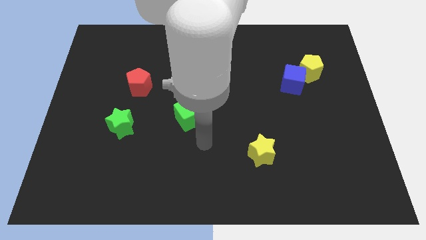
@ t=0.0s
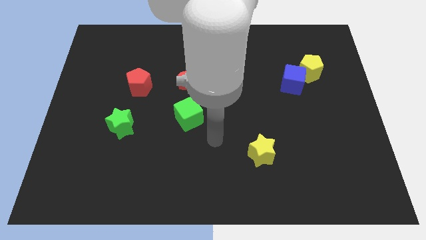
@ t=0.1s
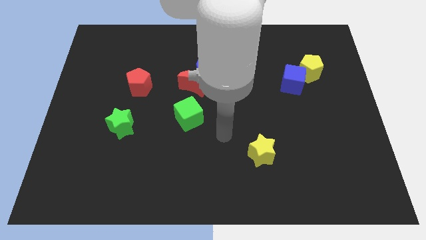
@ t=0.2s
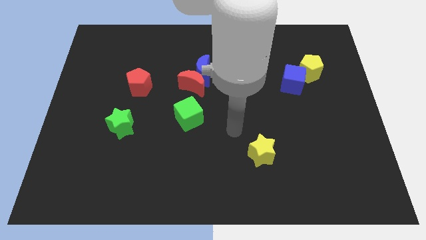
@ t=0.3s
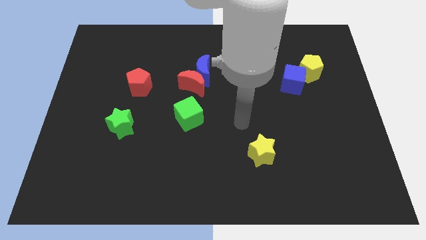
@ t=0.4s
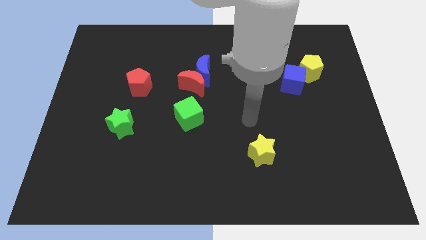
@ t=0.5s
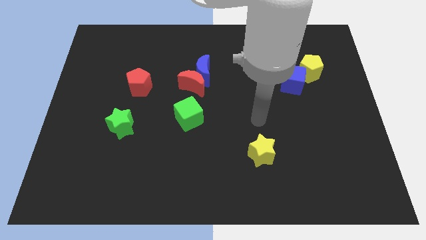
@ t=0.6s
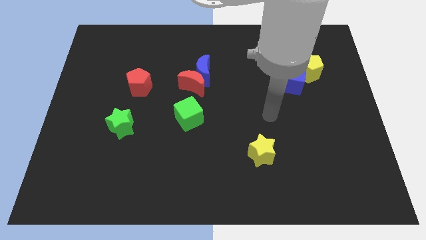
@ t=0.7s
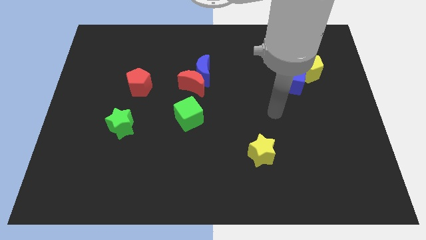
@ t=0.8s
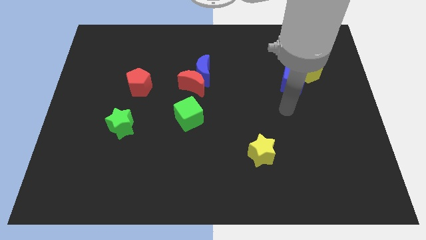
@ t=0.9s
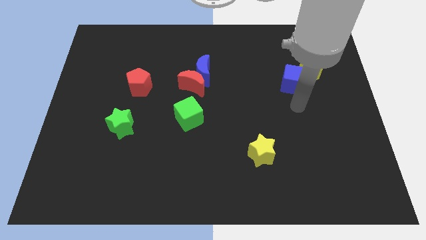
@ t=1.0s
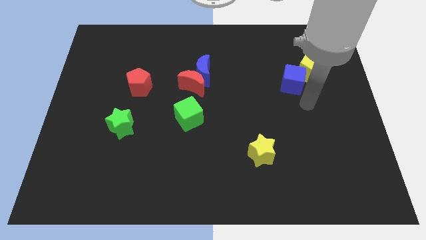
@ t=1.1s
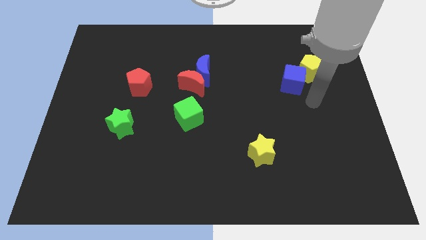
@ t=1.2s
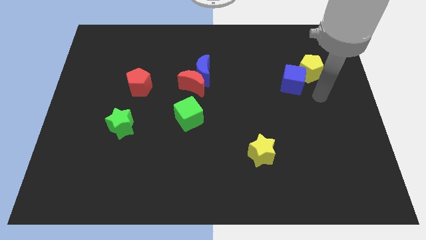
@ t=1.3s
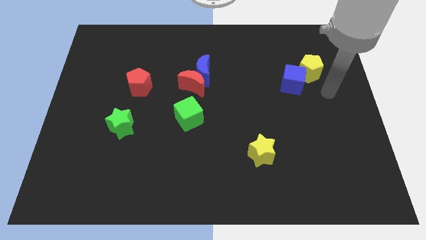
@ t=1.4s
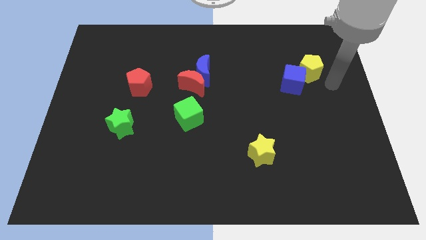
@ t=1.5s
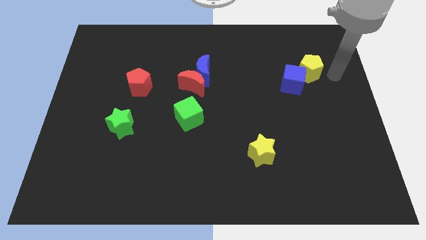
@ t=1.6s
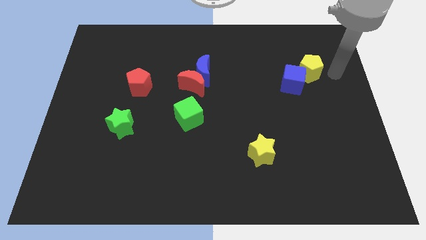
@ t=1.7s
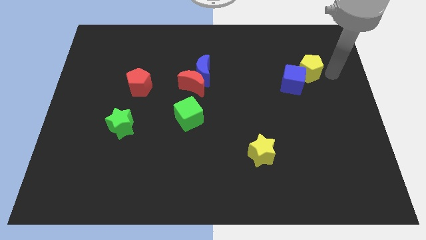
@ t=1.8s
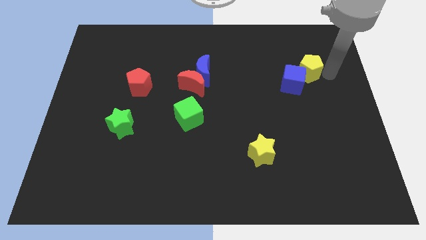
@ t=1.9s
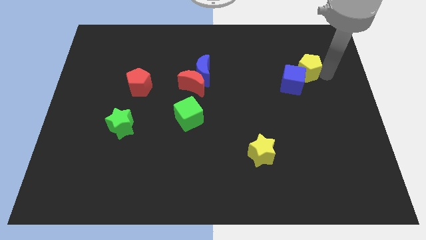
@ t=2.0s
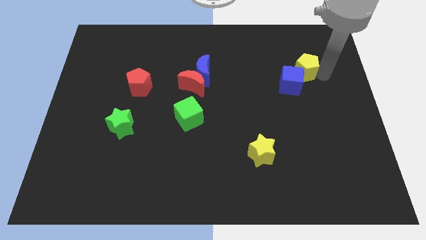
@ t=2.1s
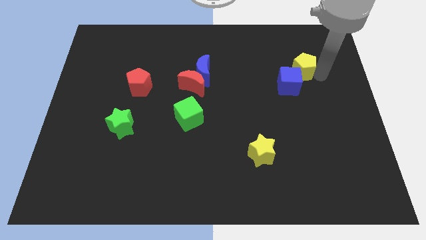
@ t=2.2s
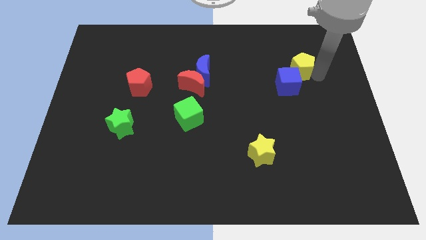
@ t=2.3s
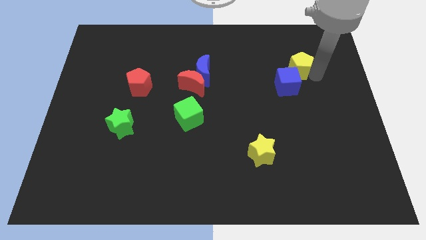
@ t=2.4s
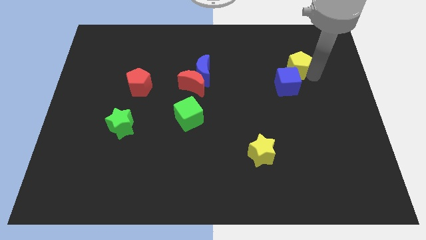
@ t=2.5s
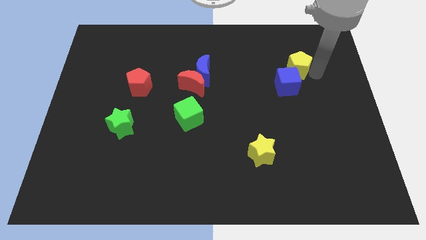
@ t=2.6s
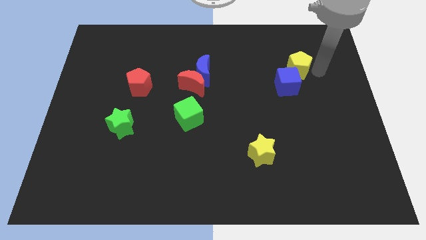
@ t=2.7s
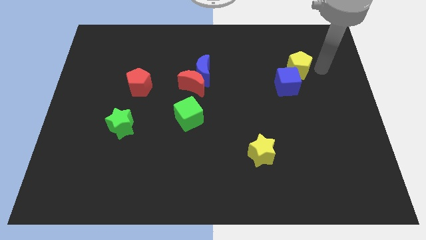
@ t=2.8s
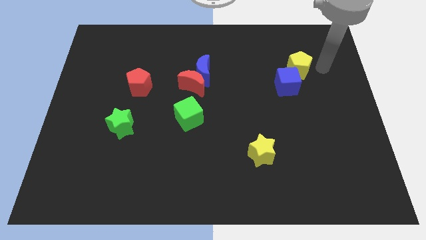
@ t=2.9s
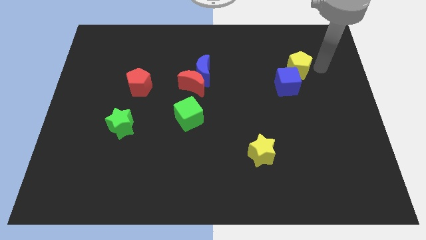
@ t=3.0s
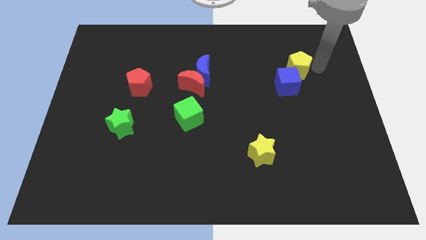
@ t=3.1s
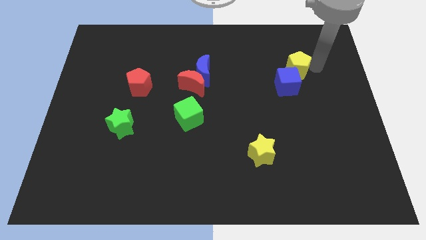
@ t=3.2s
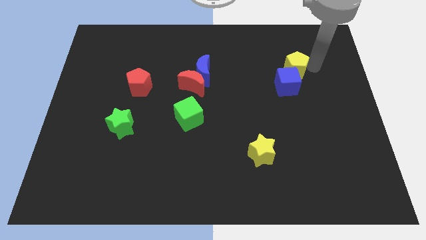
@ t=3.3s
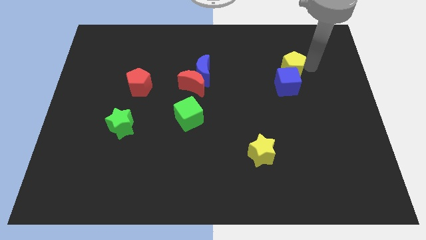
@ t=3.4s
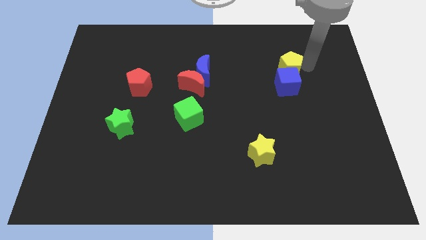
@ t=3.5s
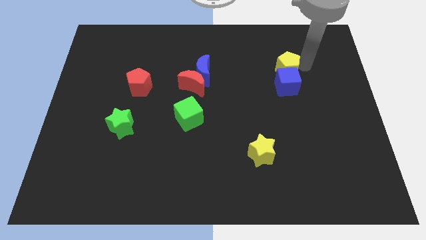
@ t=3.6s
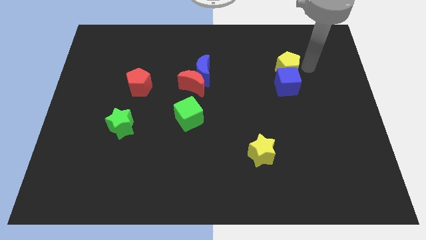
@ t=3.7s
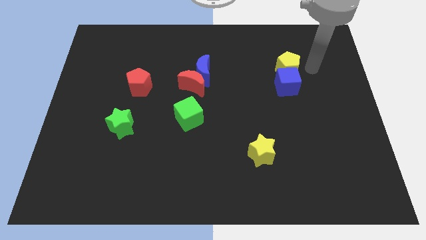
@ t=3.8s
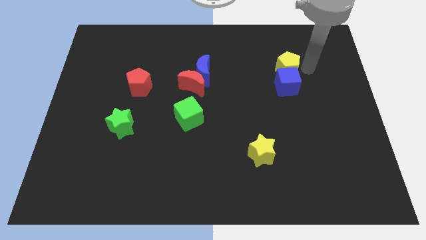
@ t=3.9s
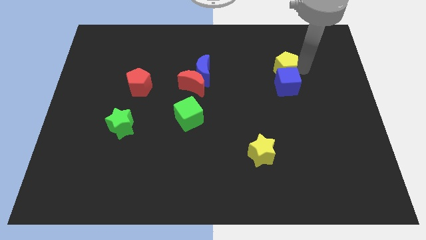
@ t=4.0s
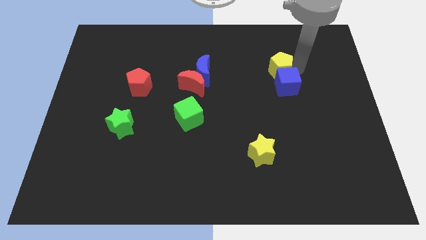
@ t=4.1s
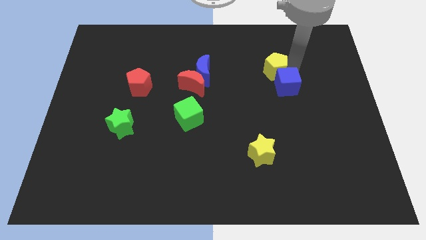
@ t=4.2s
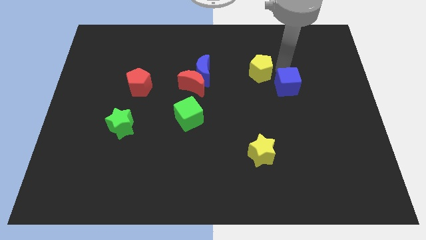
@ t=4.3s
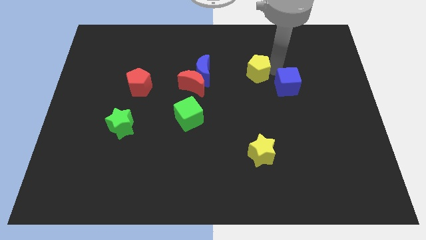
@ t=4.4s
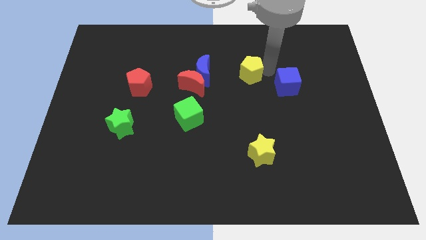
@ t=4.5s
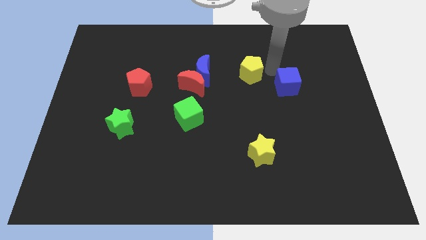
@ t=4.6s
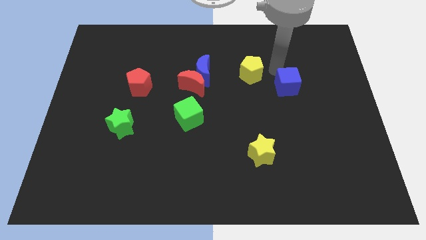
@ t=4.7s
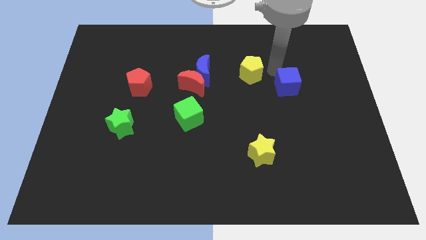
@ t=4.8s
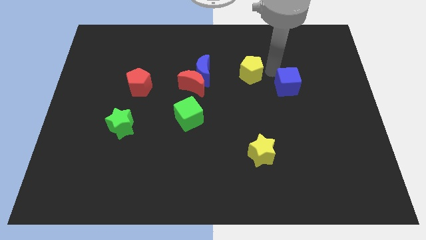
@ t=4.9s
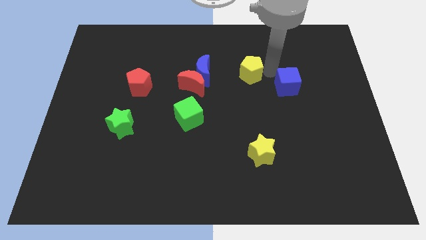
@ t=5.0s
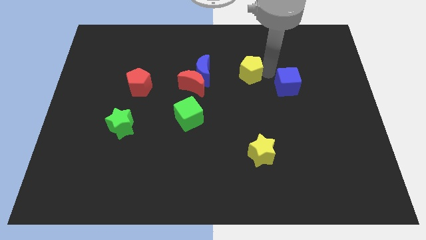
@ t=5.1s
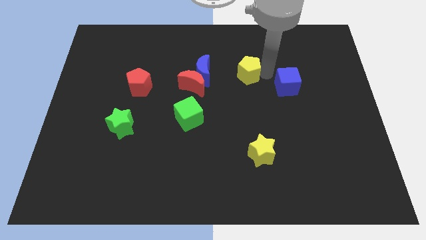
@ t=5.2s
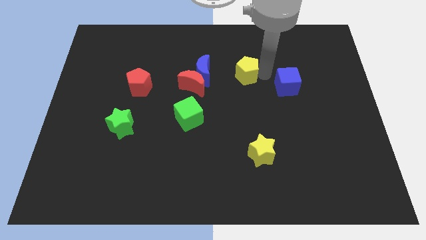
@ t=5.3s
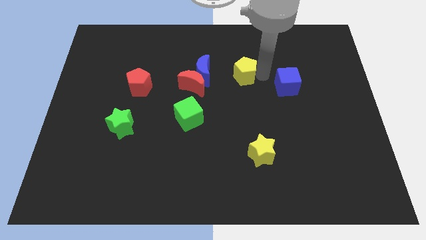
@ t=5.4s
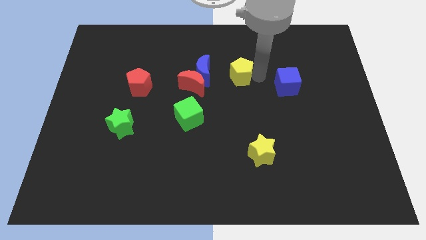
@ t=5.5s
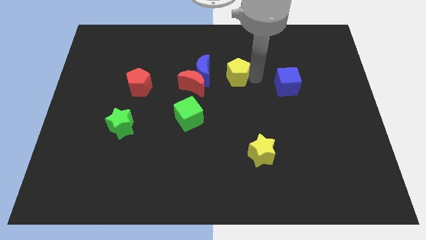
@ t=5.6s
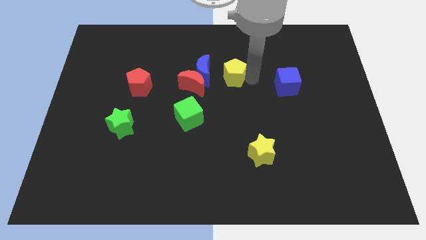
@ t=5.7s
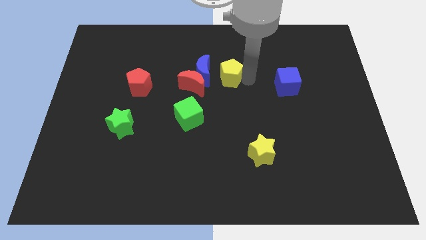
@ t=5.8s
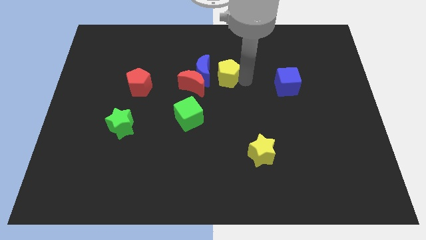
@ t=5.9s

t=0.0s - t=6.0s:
push the yellow pentagon towards the blue moon

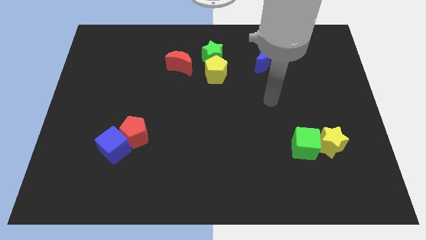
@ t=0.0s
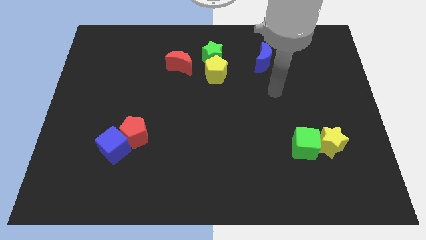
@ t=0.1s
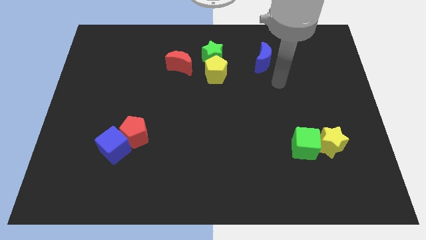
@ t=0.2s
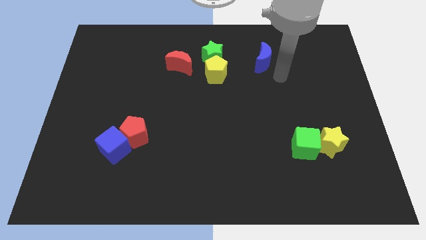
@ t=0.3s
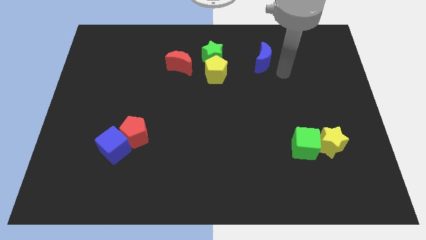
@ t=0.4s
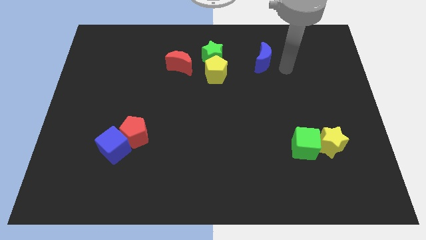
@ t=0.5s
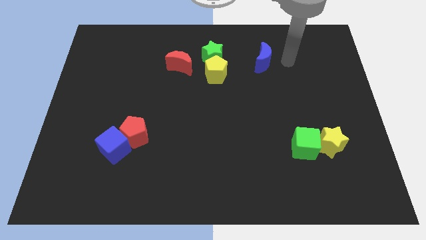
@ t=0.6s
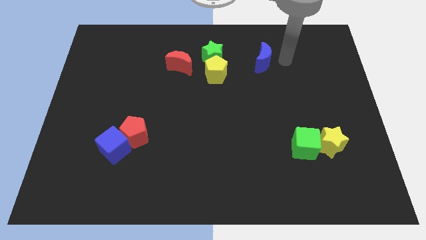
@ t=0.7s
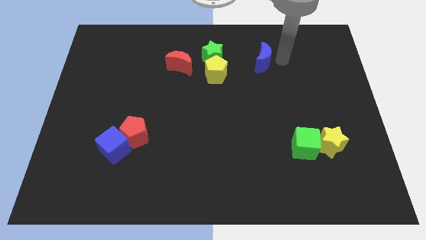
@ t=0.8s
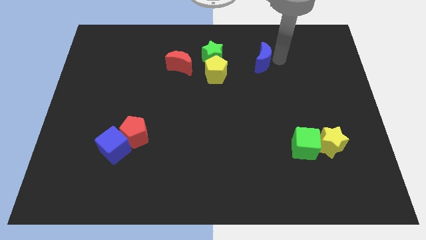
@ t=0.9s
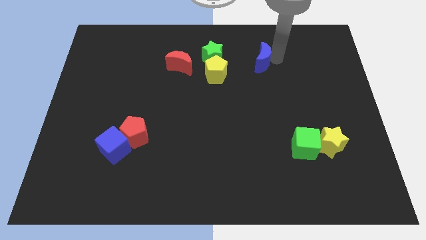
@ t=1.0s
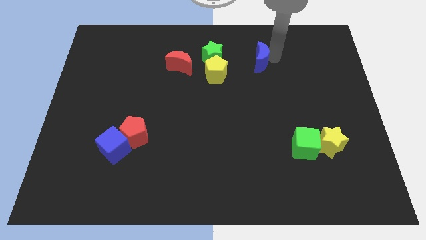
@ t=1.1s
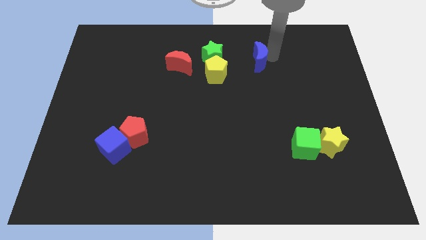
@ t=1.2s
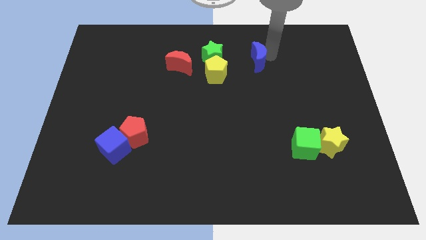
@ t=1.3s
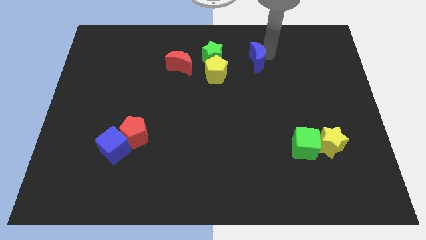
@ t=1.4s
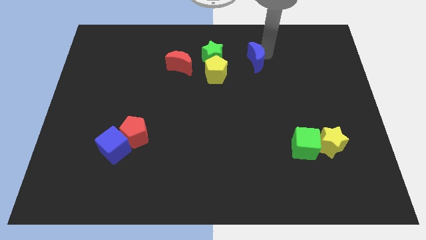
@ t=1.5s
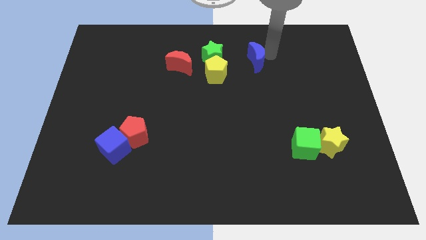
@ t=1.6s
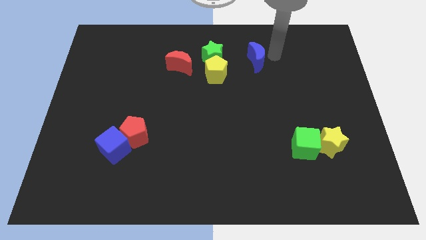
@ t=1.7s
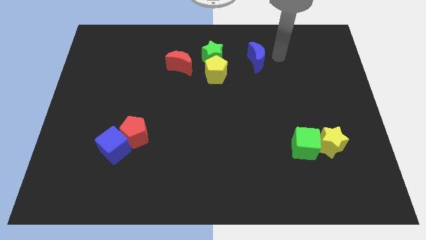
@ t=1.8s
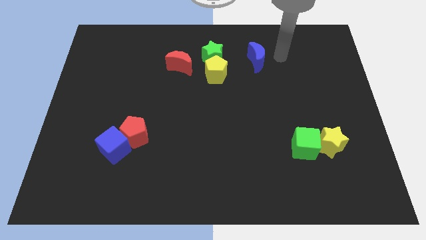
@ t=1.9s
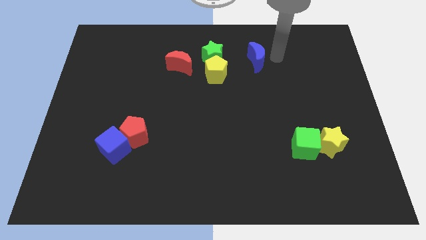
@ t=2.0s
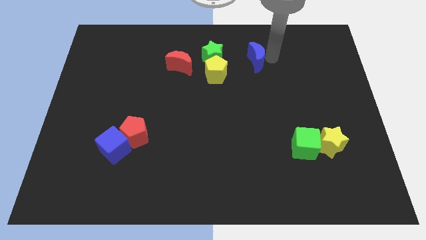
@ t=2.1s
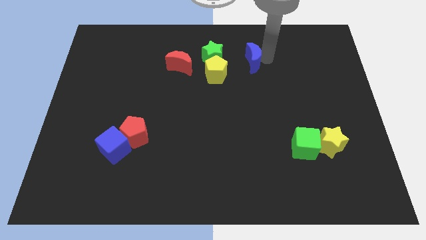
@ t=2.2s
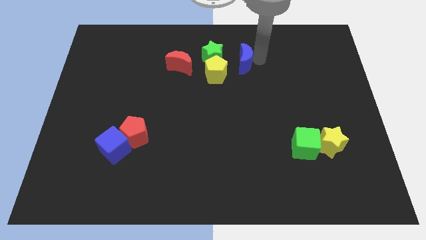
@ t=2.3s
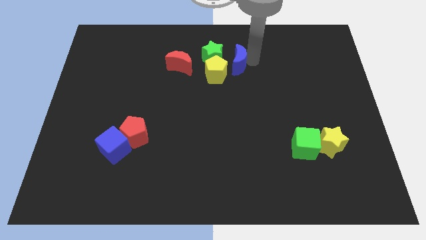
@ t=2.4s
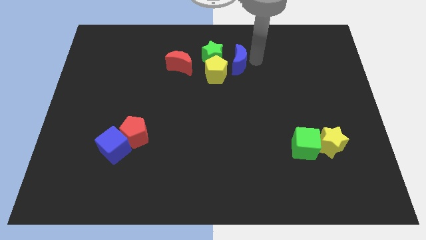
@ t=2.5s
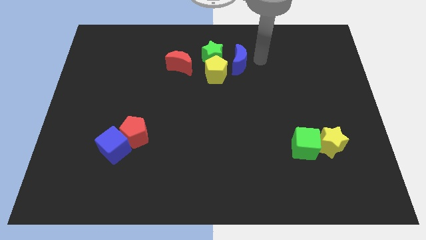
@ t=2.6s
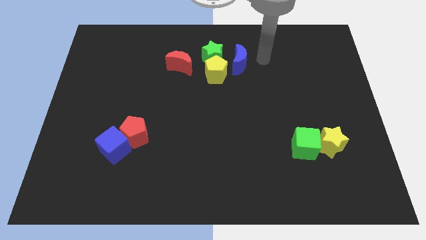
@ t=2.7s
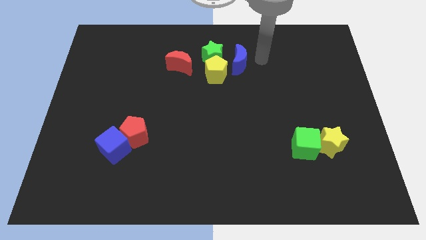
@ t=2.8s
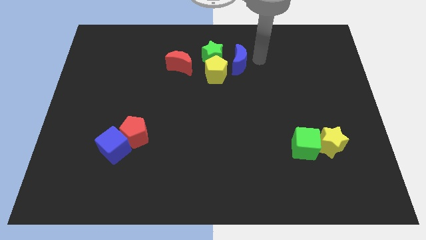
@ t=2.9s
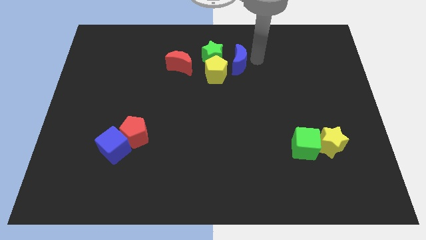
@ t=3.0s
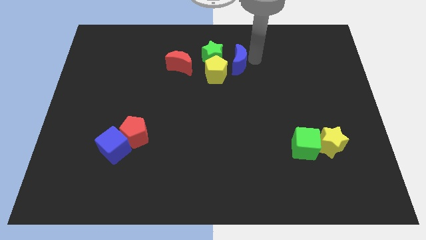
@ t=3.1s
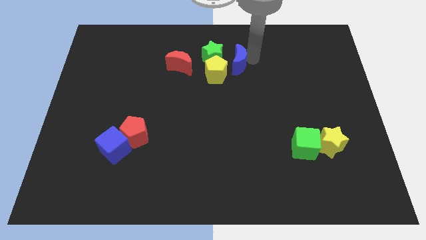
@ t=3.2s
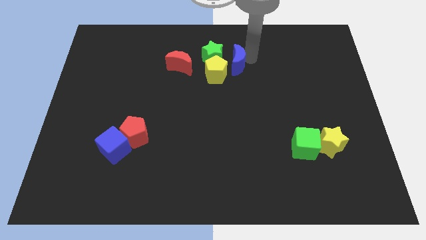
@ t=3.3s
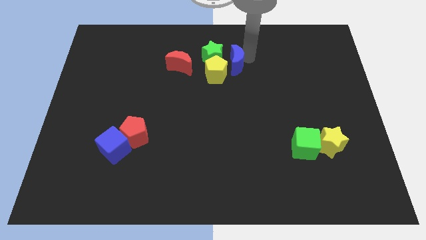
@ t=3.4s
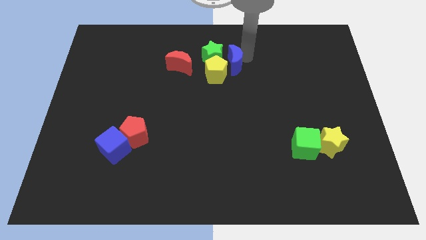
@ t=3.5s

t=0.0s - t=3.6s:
slide the blue moon to the yellow pentagon
